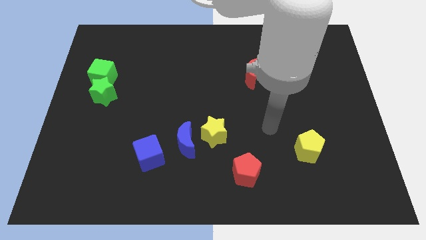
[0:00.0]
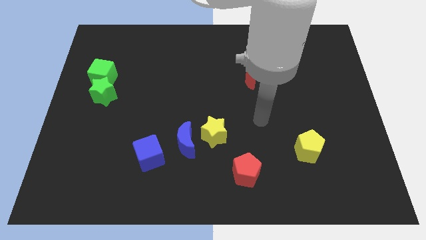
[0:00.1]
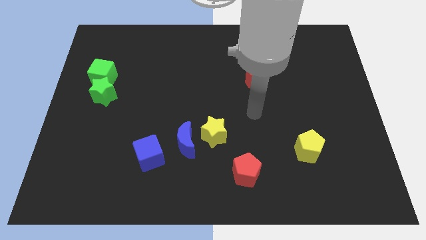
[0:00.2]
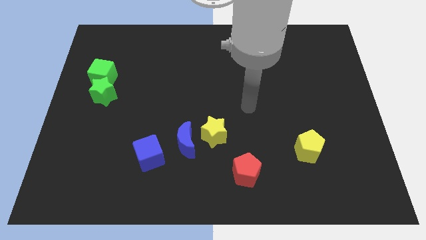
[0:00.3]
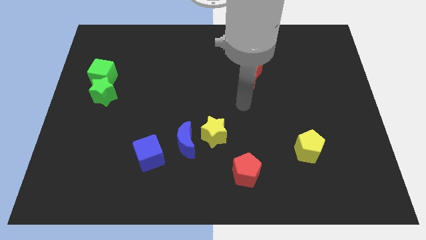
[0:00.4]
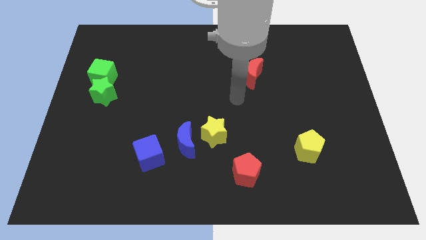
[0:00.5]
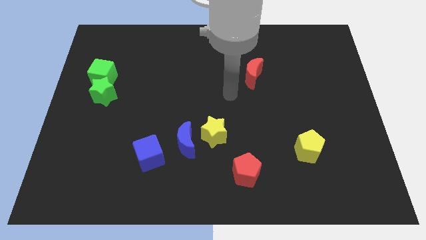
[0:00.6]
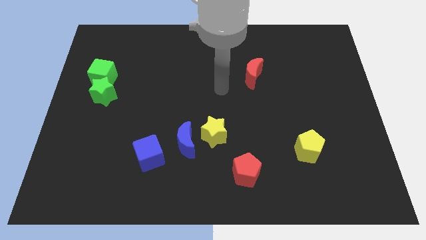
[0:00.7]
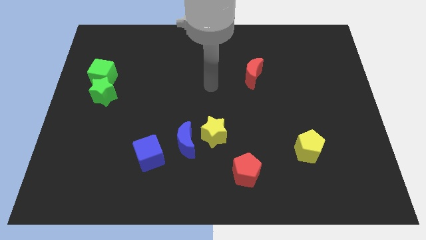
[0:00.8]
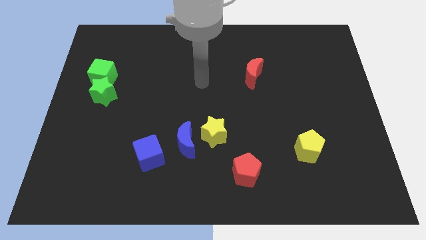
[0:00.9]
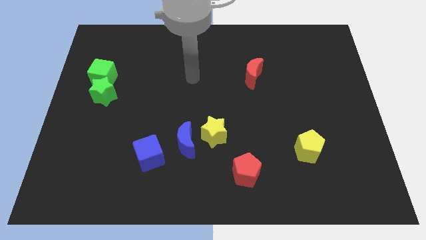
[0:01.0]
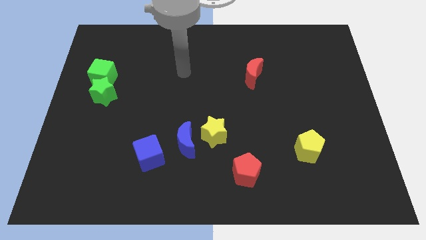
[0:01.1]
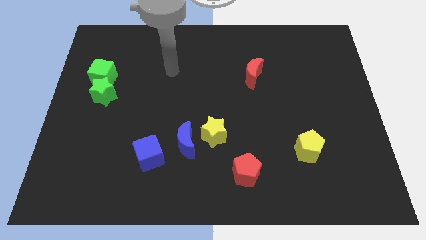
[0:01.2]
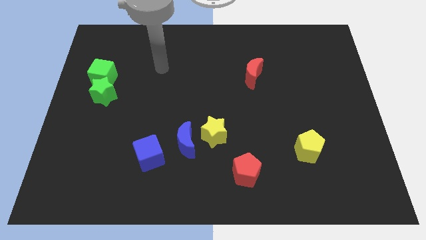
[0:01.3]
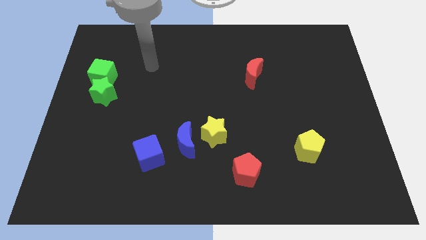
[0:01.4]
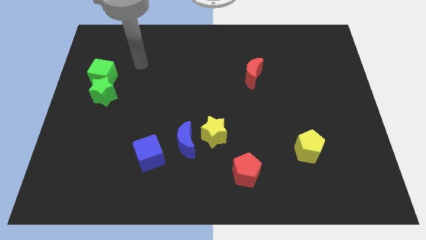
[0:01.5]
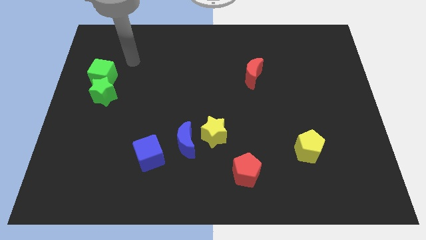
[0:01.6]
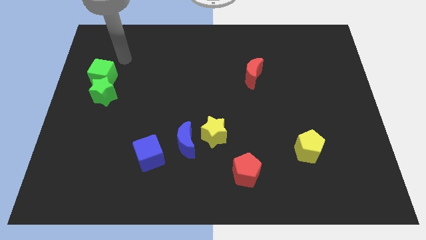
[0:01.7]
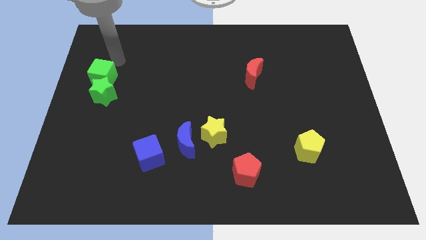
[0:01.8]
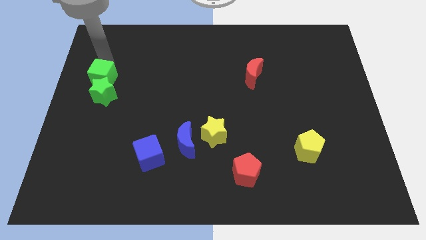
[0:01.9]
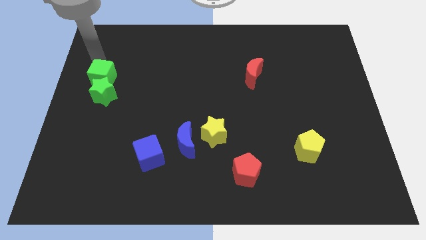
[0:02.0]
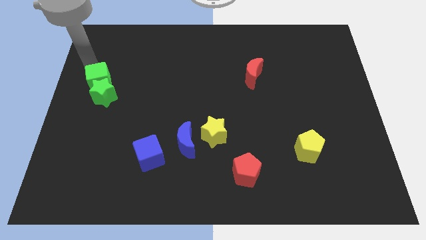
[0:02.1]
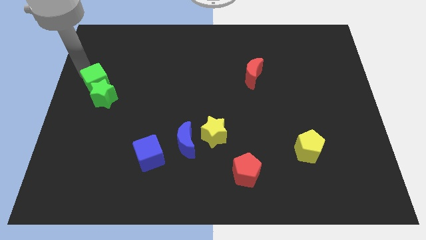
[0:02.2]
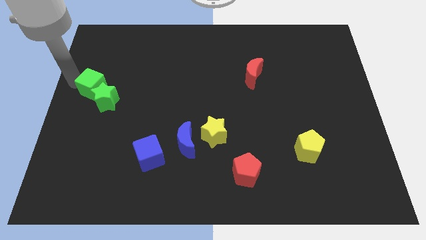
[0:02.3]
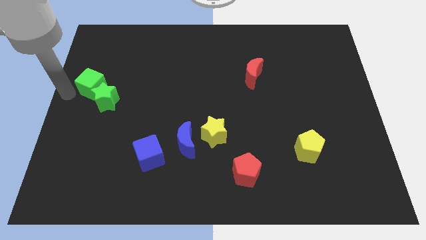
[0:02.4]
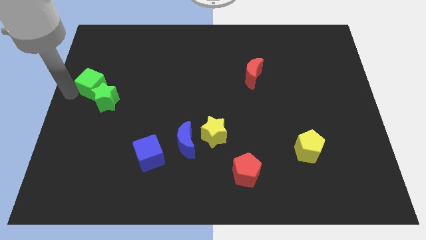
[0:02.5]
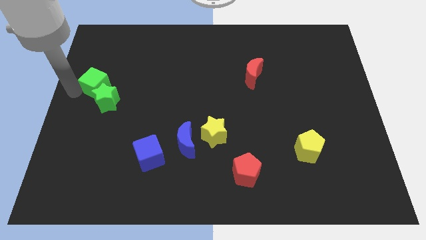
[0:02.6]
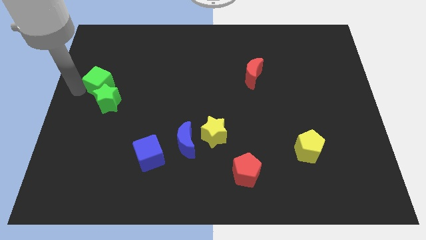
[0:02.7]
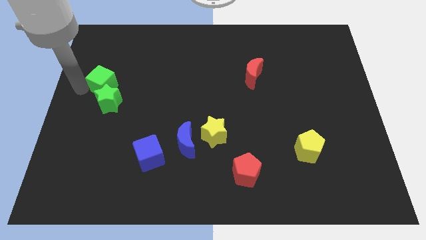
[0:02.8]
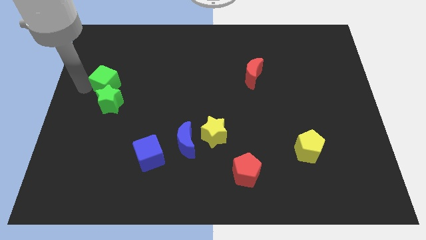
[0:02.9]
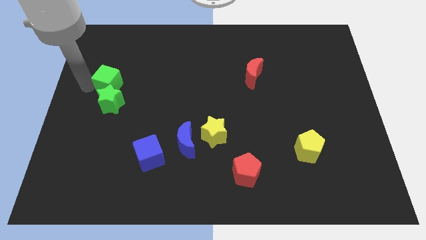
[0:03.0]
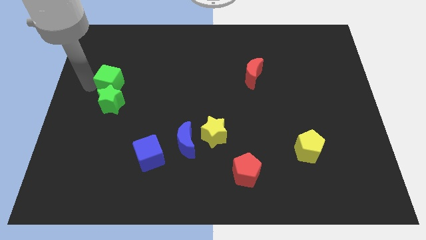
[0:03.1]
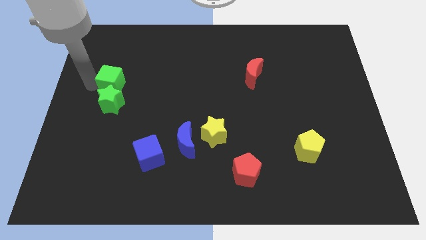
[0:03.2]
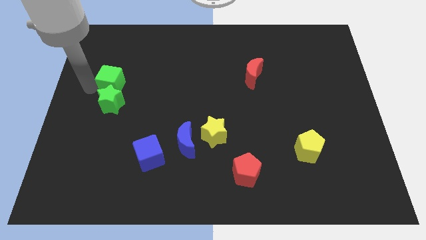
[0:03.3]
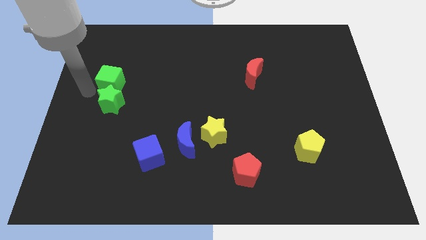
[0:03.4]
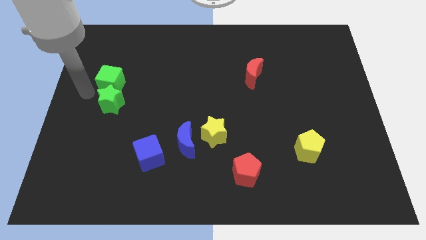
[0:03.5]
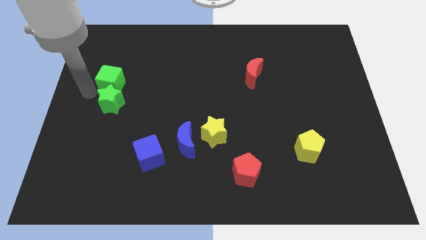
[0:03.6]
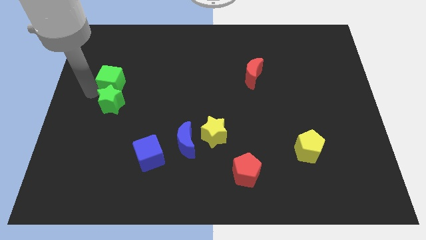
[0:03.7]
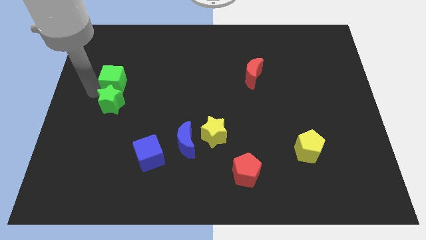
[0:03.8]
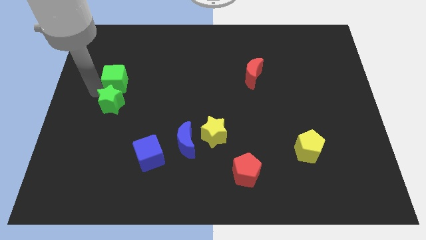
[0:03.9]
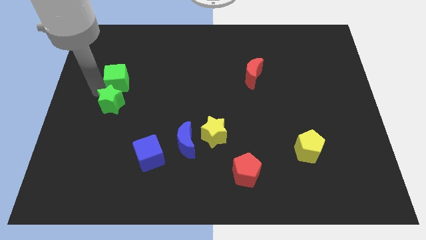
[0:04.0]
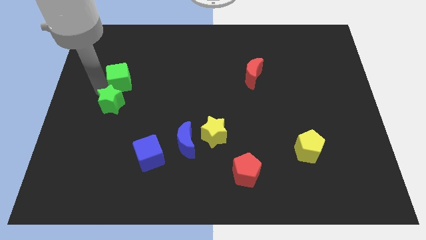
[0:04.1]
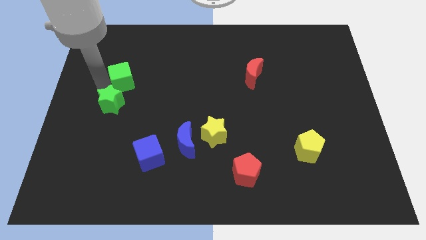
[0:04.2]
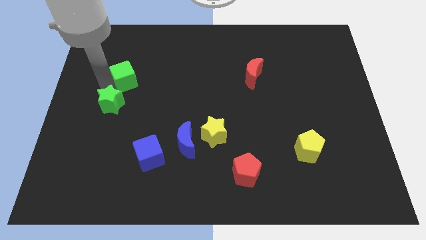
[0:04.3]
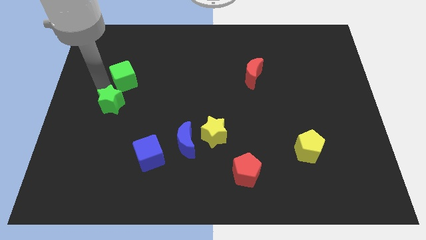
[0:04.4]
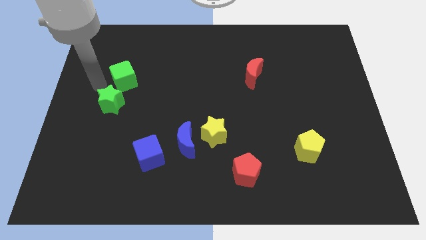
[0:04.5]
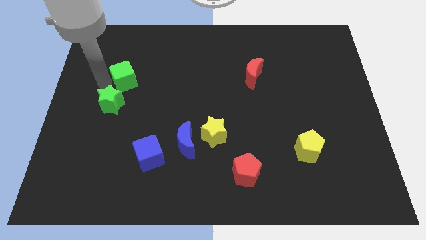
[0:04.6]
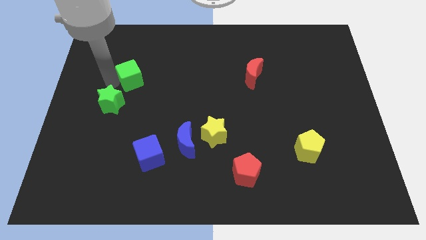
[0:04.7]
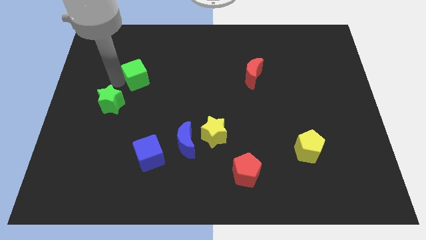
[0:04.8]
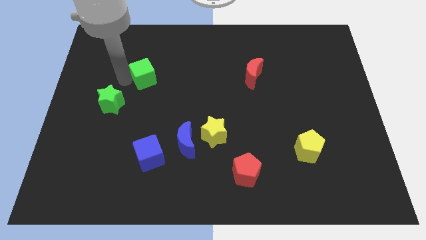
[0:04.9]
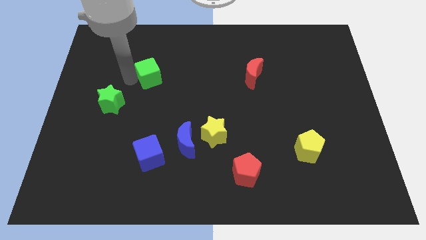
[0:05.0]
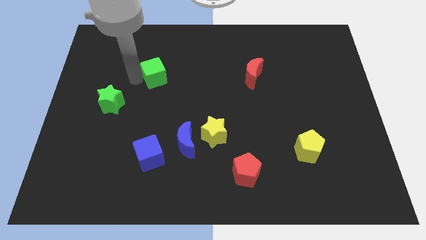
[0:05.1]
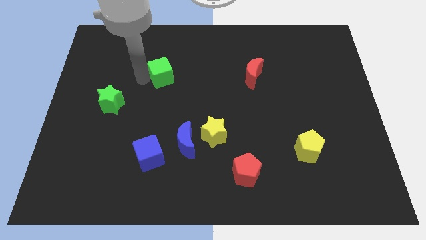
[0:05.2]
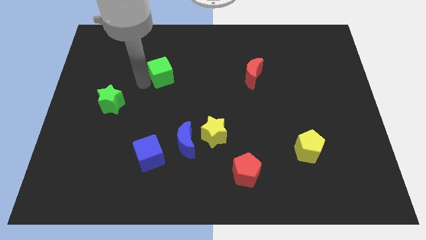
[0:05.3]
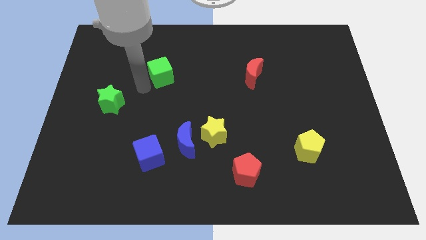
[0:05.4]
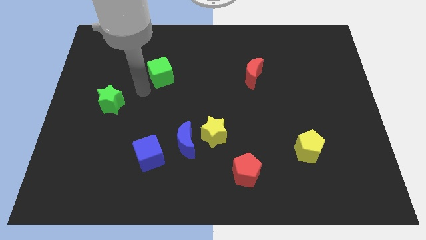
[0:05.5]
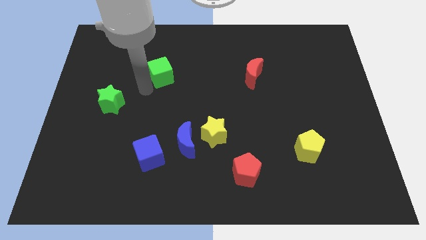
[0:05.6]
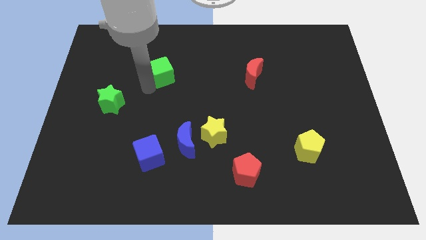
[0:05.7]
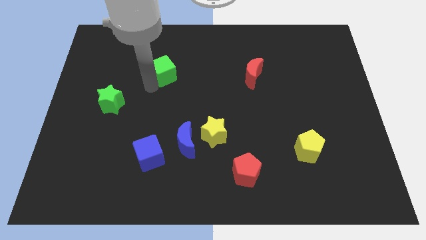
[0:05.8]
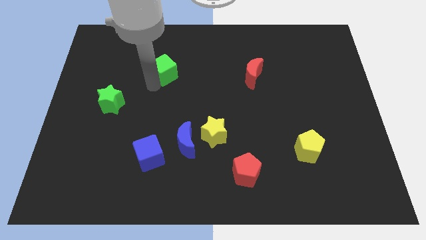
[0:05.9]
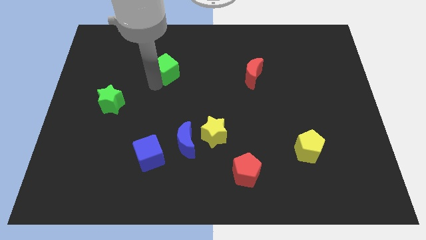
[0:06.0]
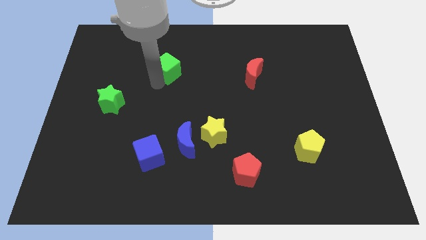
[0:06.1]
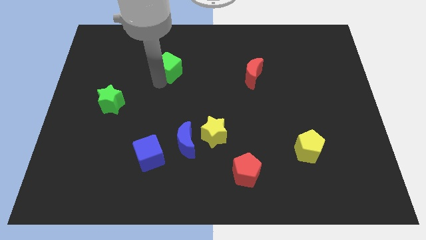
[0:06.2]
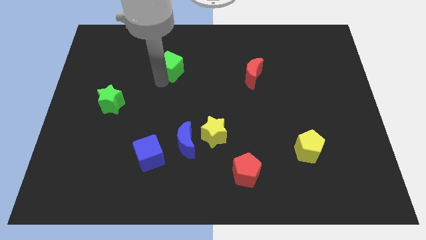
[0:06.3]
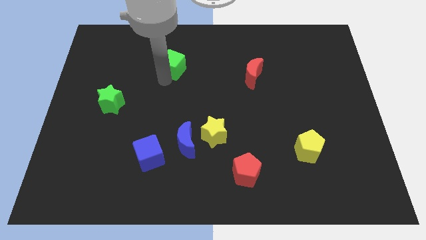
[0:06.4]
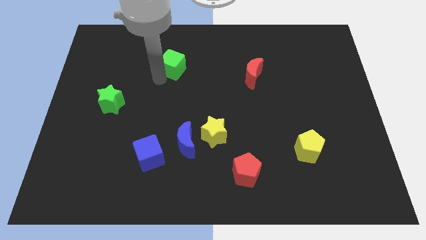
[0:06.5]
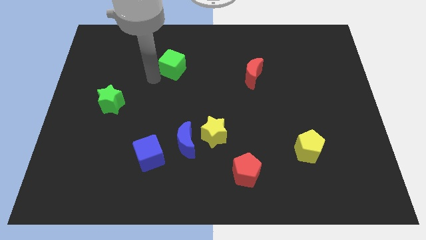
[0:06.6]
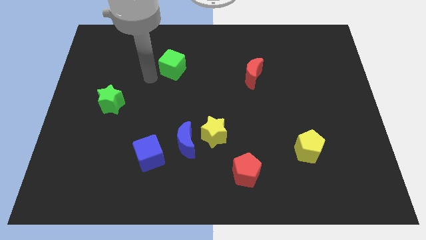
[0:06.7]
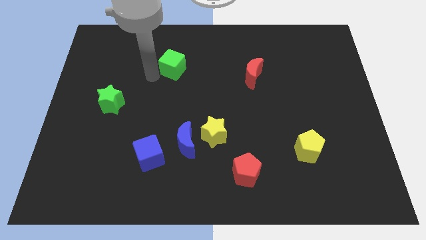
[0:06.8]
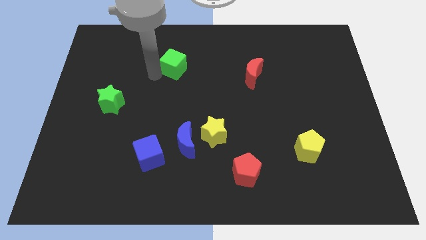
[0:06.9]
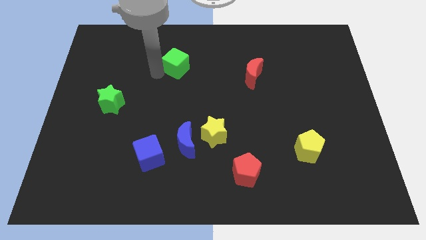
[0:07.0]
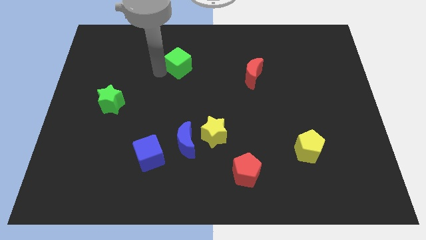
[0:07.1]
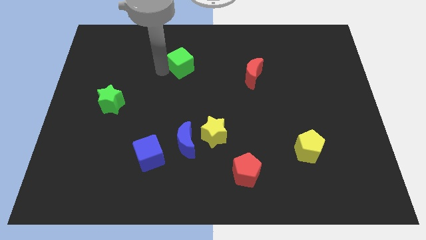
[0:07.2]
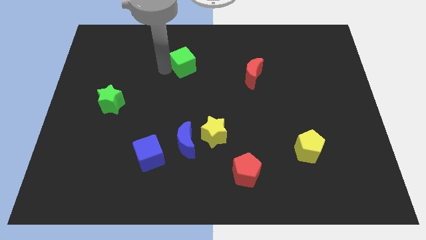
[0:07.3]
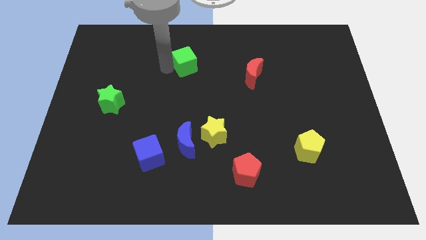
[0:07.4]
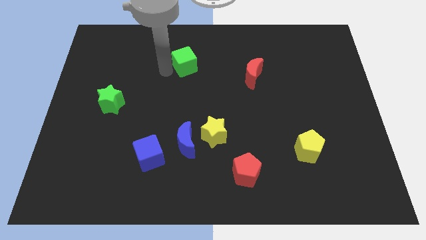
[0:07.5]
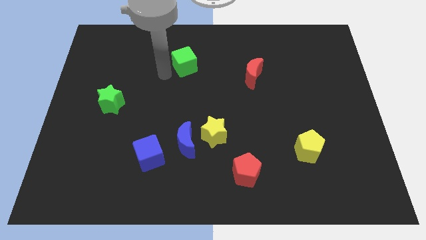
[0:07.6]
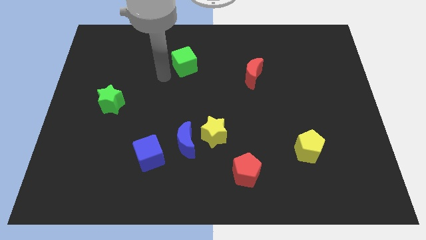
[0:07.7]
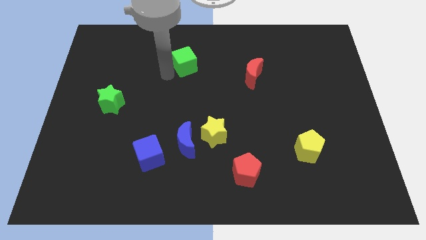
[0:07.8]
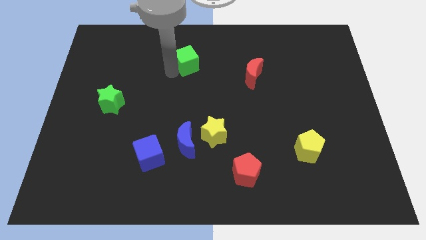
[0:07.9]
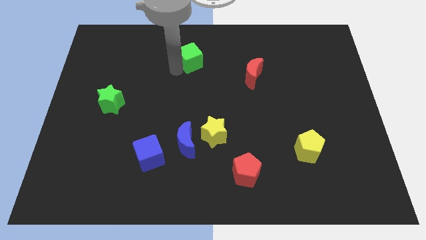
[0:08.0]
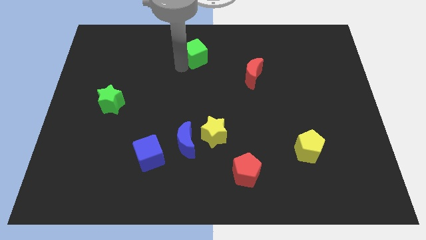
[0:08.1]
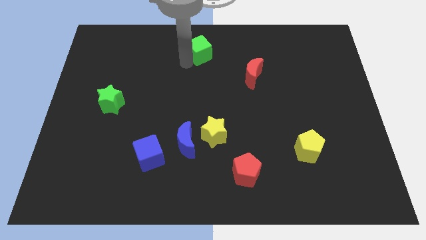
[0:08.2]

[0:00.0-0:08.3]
put the green cube to the towards your base
